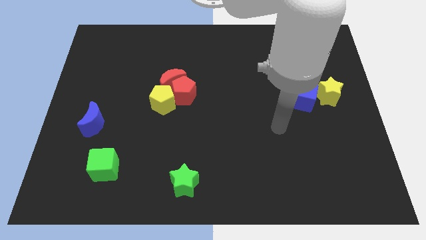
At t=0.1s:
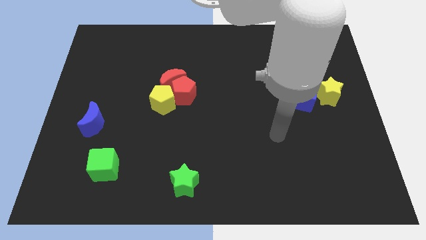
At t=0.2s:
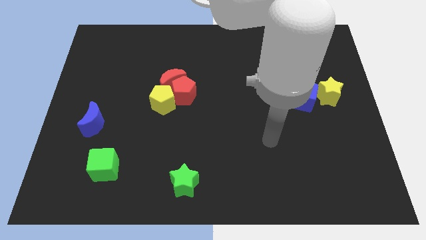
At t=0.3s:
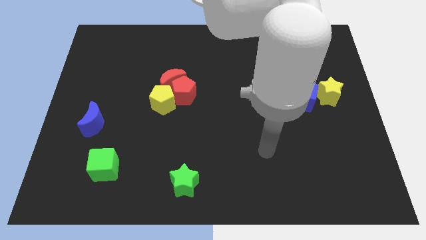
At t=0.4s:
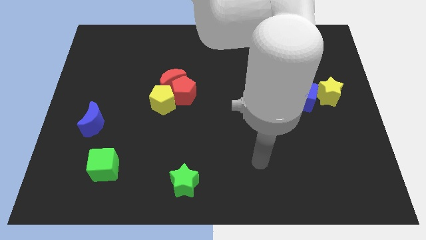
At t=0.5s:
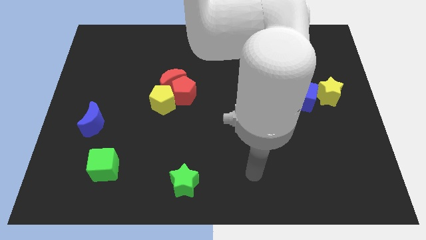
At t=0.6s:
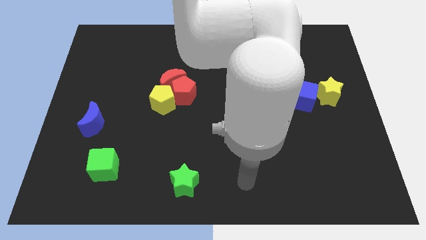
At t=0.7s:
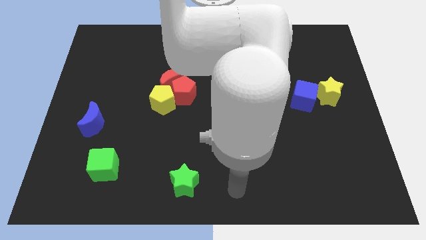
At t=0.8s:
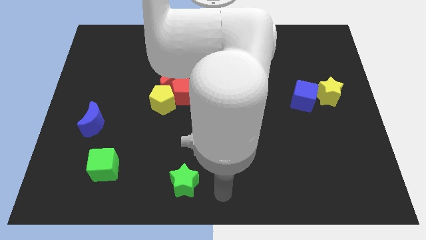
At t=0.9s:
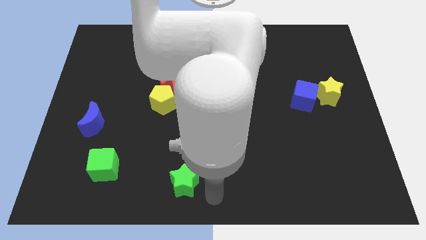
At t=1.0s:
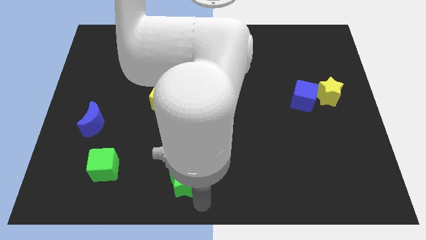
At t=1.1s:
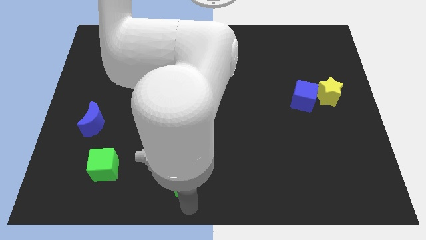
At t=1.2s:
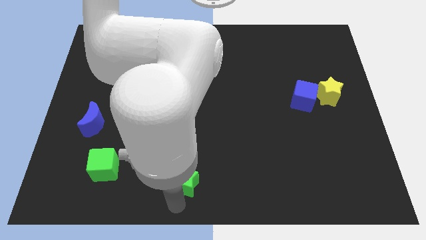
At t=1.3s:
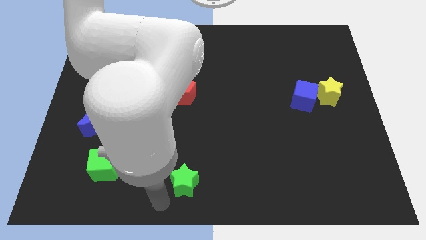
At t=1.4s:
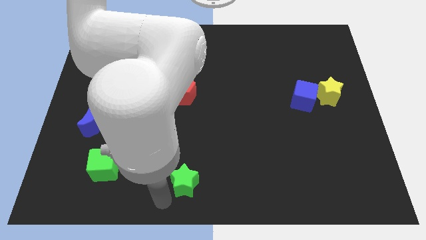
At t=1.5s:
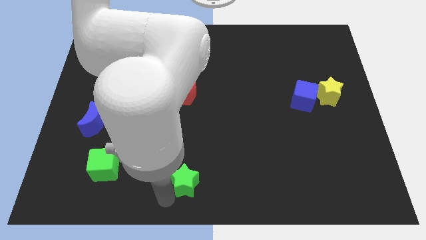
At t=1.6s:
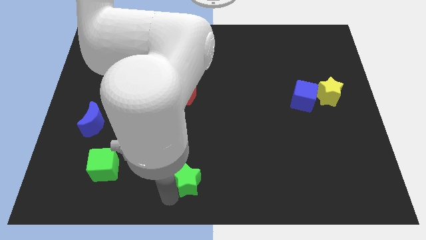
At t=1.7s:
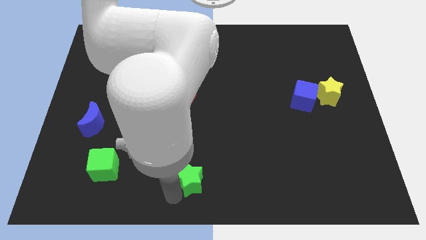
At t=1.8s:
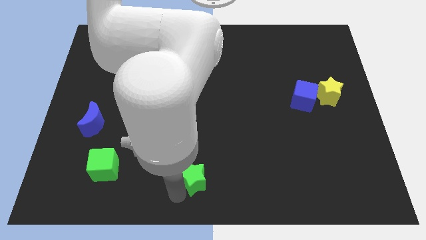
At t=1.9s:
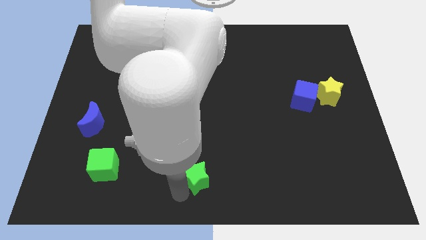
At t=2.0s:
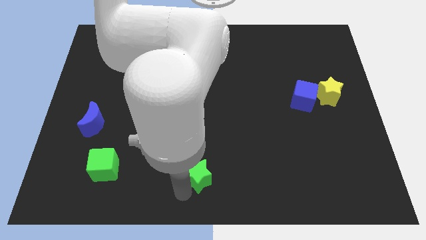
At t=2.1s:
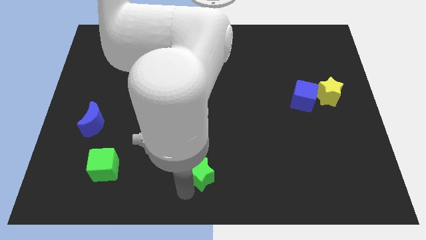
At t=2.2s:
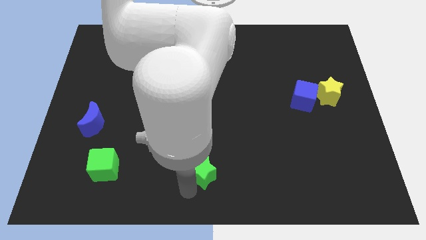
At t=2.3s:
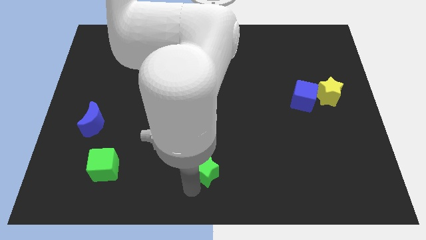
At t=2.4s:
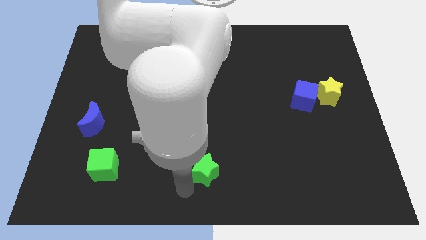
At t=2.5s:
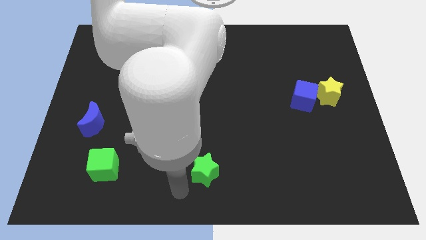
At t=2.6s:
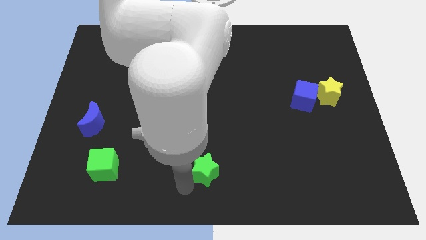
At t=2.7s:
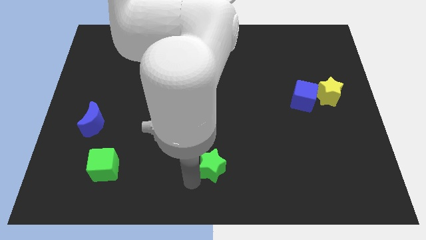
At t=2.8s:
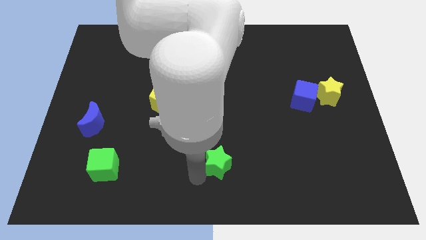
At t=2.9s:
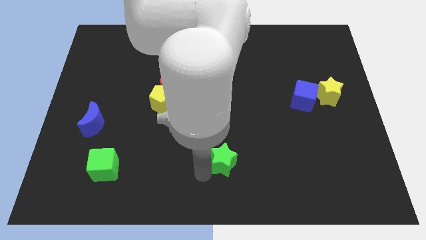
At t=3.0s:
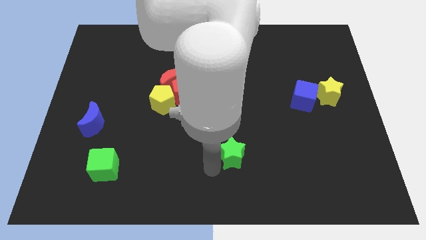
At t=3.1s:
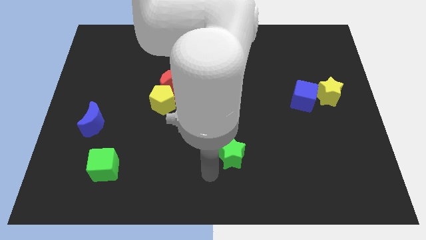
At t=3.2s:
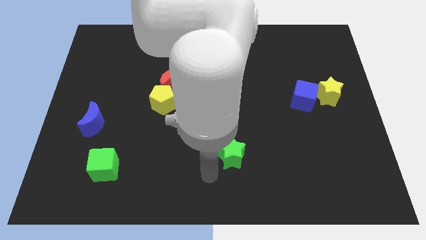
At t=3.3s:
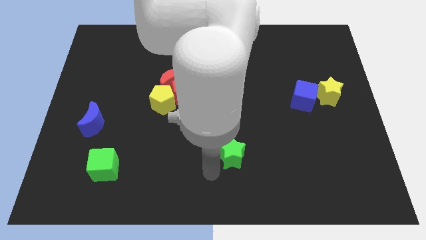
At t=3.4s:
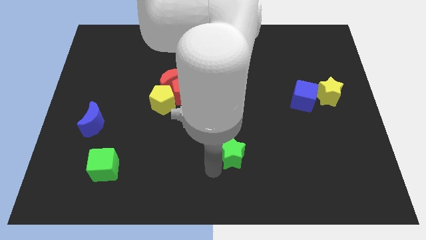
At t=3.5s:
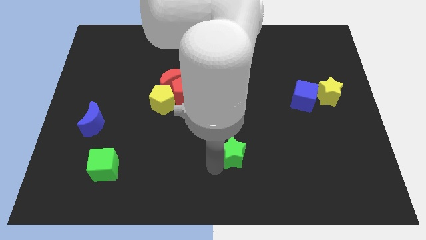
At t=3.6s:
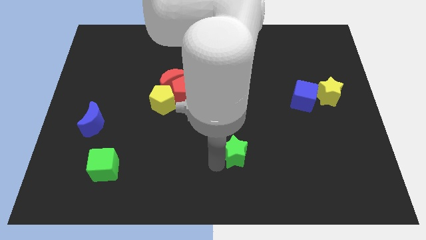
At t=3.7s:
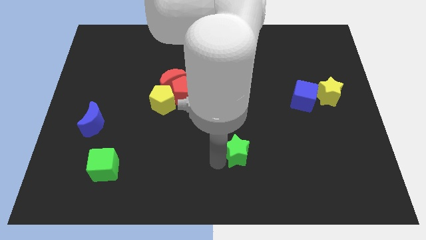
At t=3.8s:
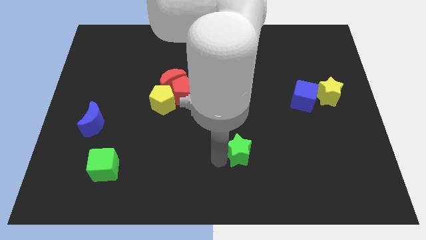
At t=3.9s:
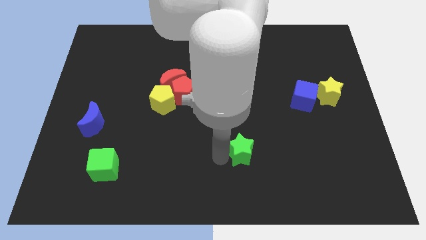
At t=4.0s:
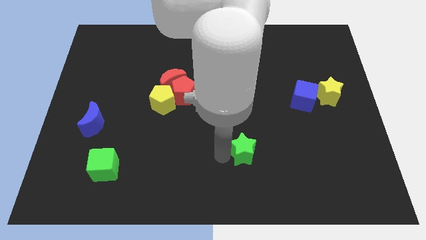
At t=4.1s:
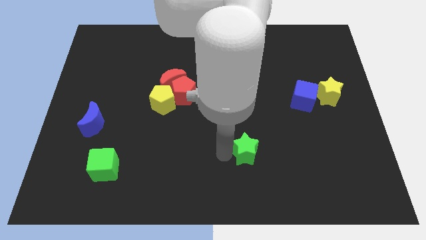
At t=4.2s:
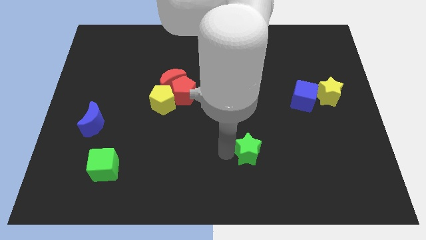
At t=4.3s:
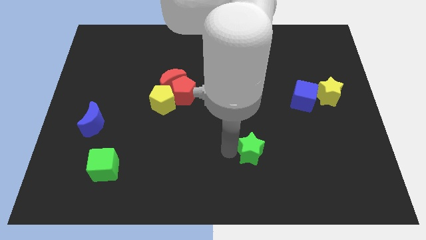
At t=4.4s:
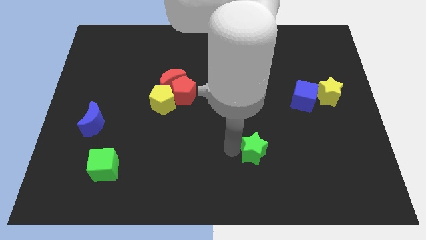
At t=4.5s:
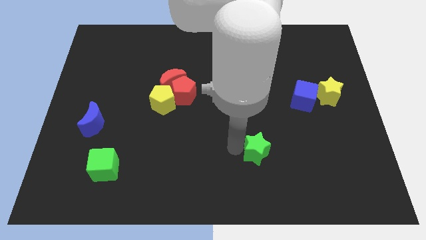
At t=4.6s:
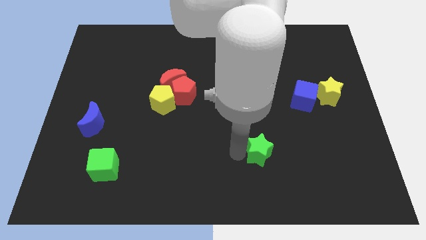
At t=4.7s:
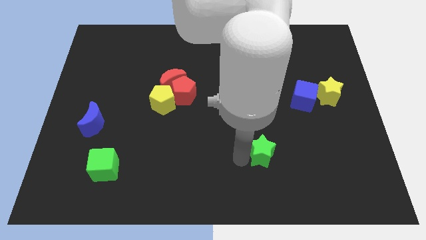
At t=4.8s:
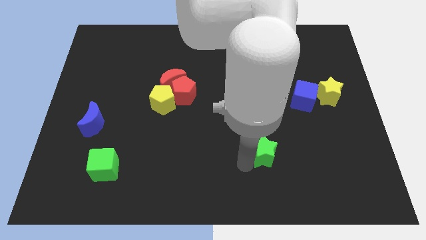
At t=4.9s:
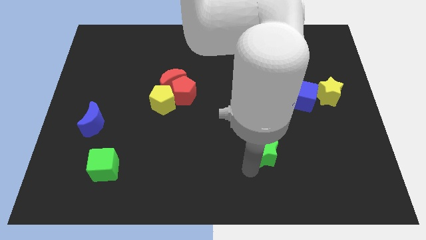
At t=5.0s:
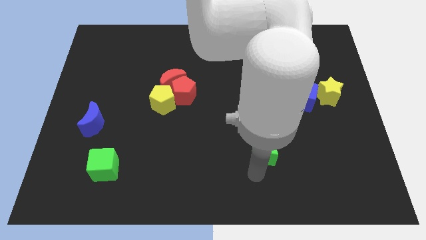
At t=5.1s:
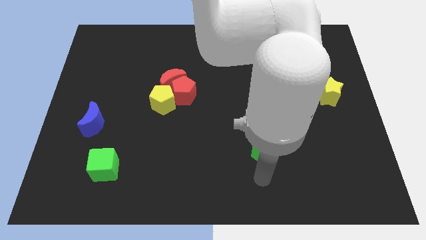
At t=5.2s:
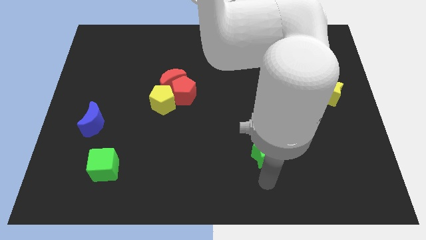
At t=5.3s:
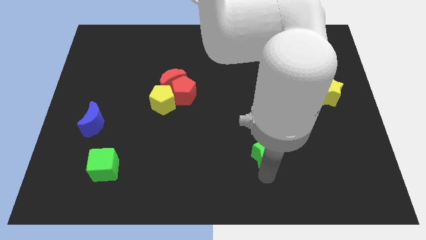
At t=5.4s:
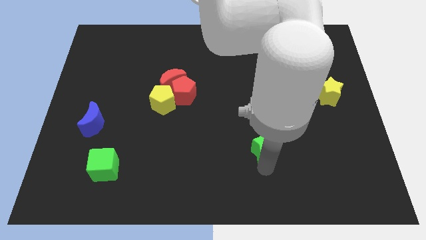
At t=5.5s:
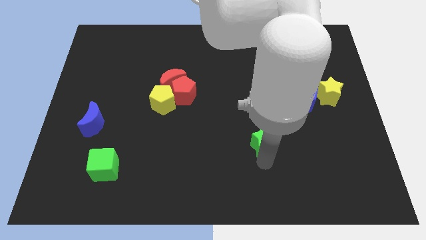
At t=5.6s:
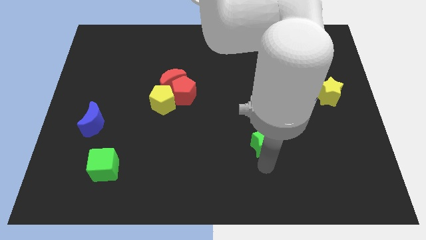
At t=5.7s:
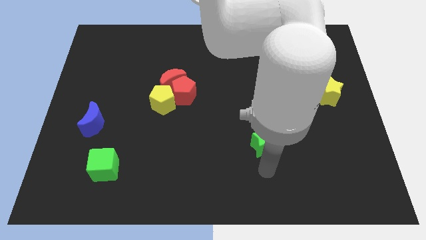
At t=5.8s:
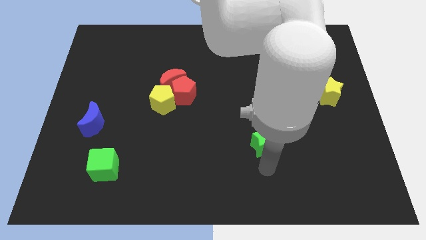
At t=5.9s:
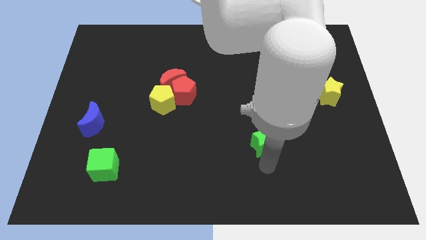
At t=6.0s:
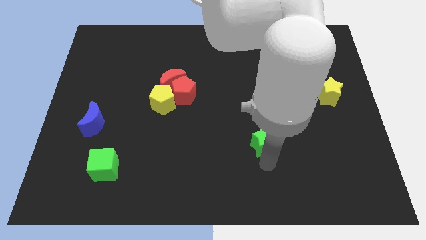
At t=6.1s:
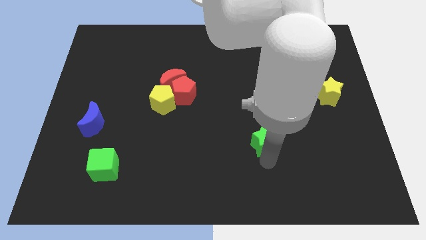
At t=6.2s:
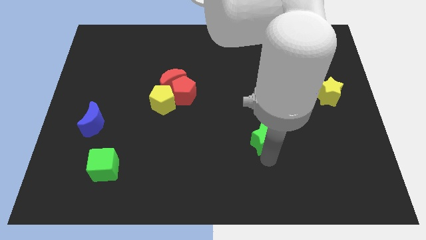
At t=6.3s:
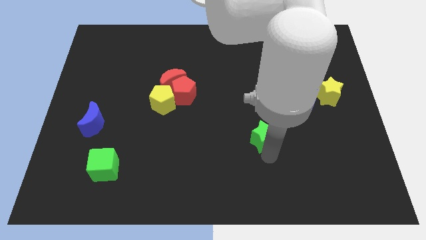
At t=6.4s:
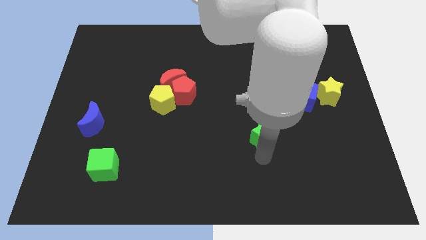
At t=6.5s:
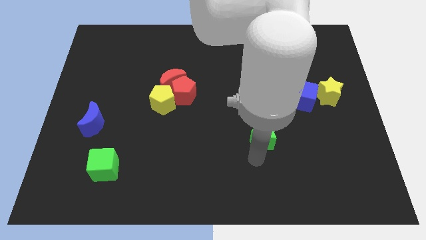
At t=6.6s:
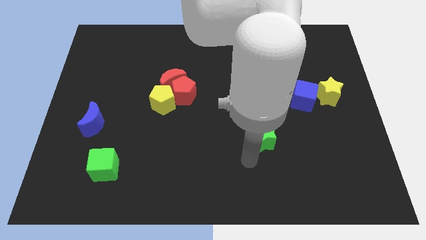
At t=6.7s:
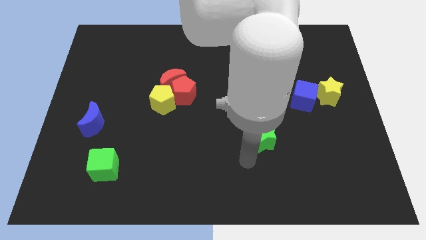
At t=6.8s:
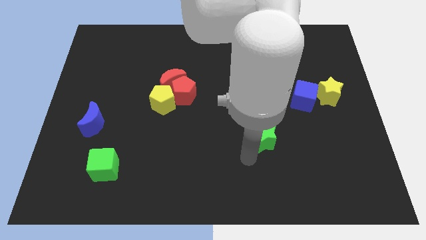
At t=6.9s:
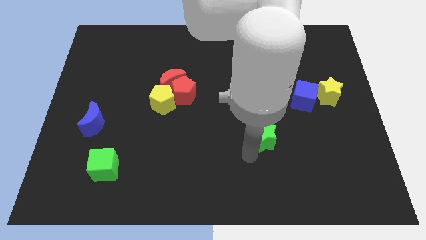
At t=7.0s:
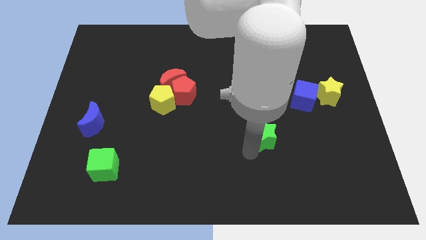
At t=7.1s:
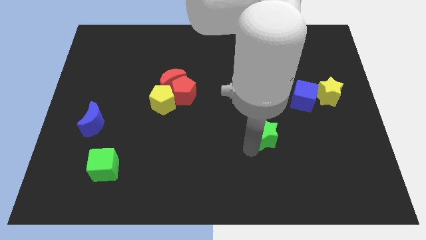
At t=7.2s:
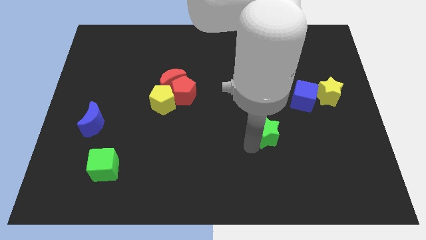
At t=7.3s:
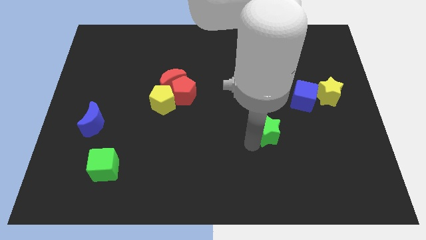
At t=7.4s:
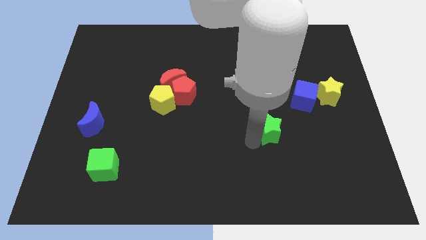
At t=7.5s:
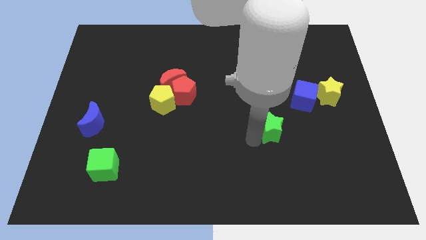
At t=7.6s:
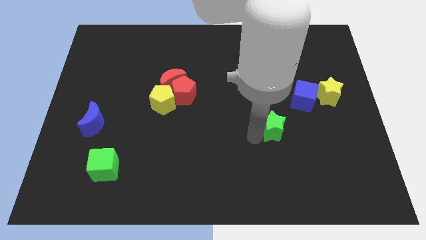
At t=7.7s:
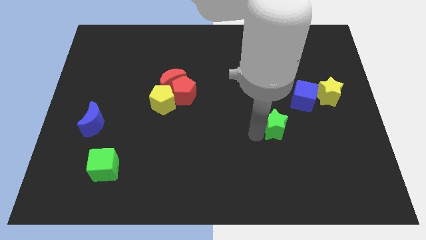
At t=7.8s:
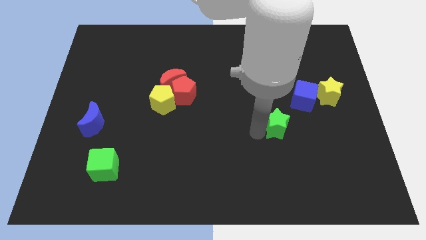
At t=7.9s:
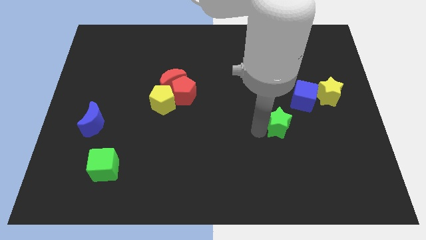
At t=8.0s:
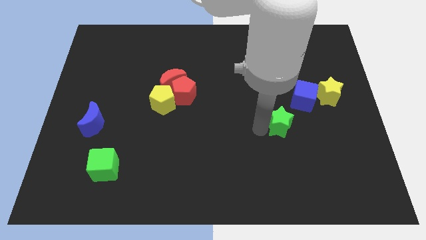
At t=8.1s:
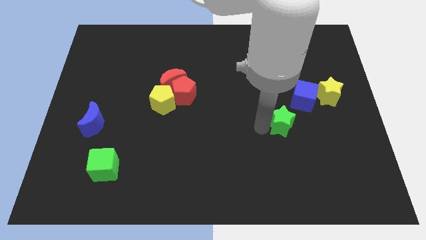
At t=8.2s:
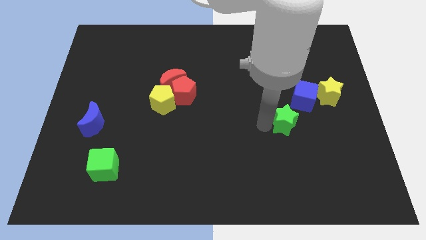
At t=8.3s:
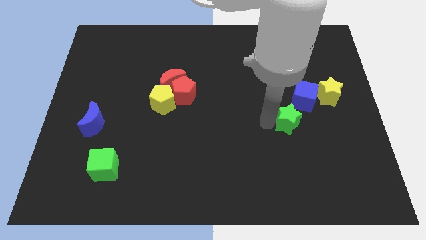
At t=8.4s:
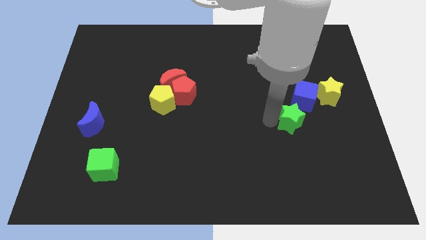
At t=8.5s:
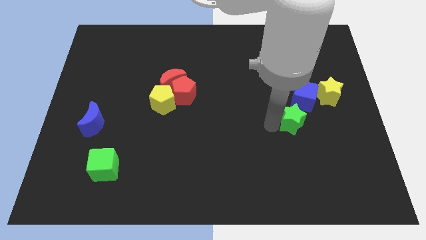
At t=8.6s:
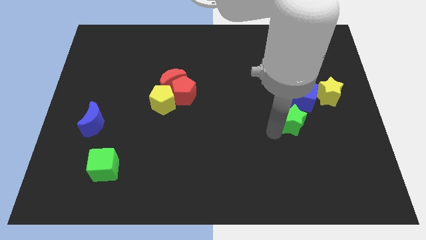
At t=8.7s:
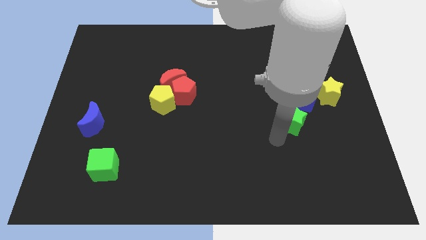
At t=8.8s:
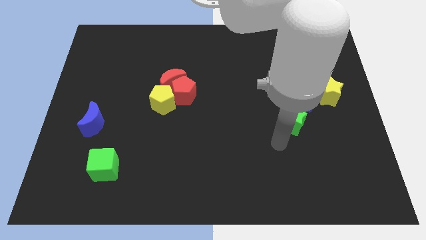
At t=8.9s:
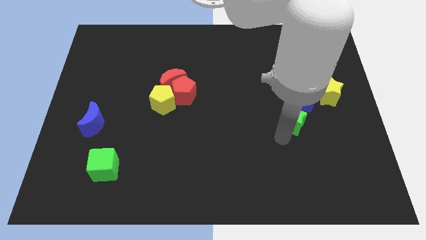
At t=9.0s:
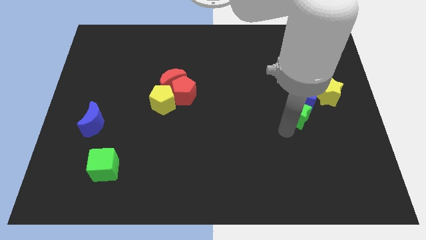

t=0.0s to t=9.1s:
put the green star towards the blue cube
